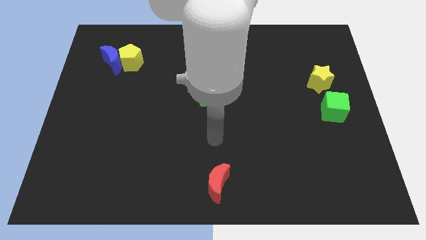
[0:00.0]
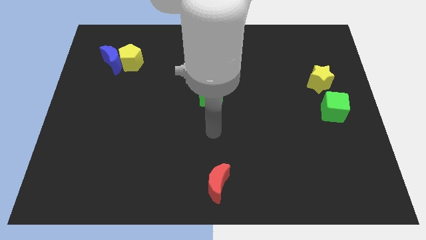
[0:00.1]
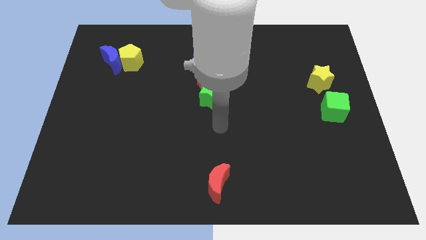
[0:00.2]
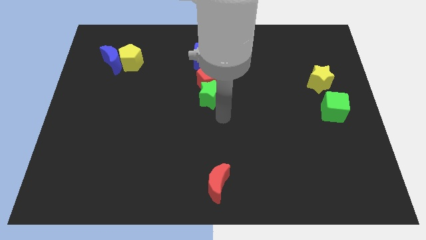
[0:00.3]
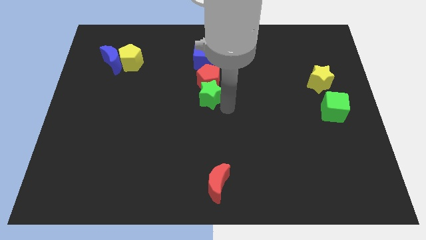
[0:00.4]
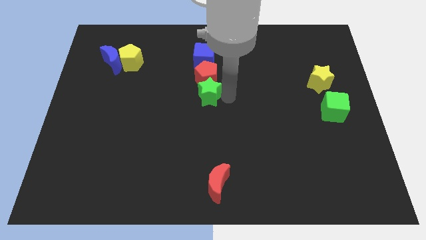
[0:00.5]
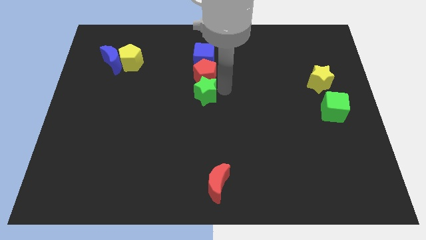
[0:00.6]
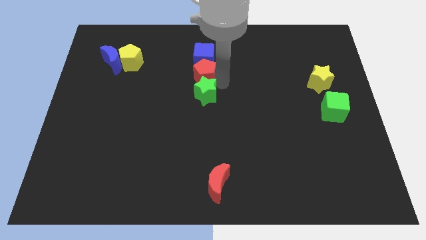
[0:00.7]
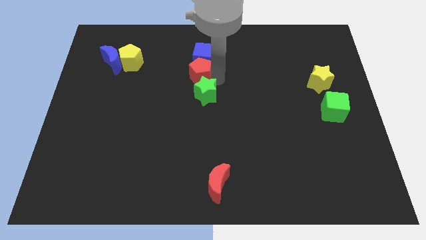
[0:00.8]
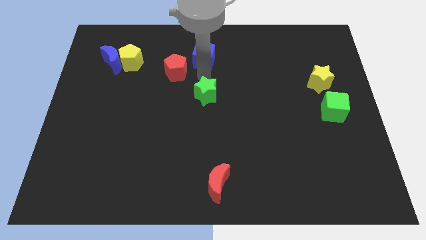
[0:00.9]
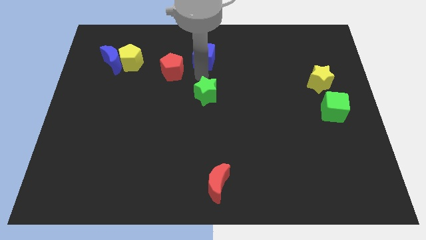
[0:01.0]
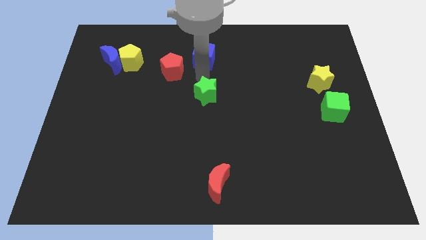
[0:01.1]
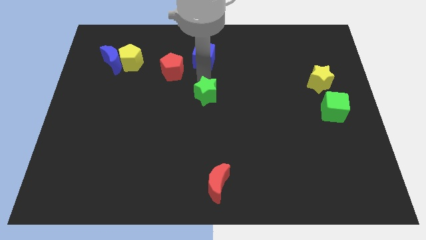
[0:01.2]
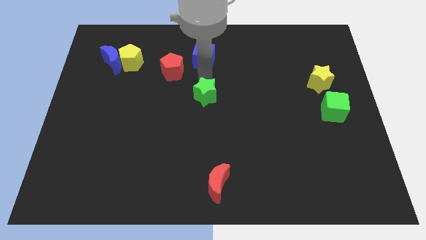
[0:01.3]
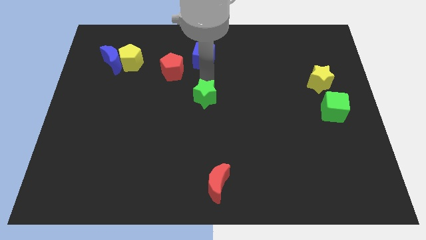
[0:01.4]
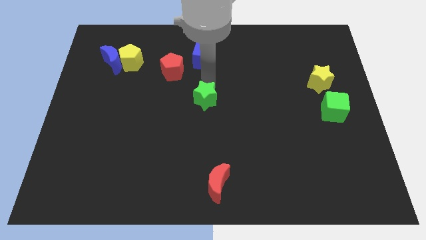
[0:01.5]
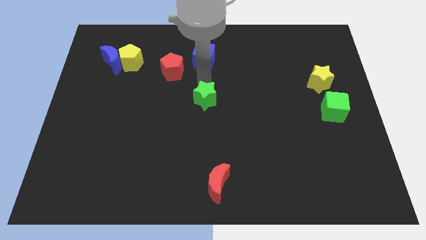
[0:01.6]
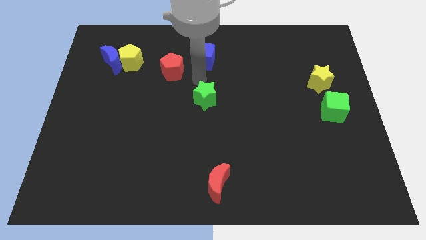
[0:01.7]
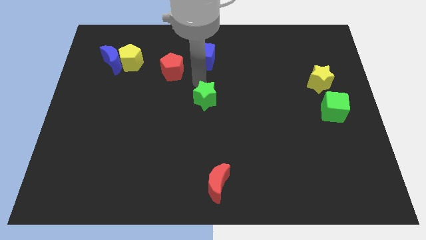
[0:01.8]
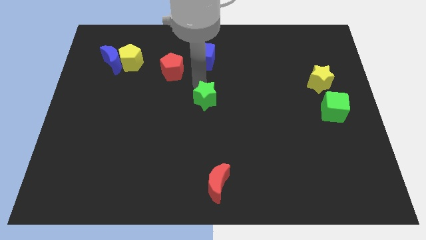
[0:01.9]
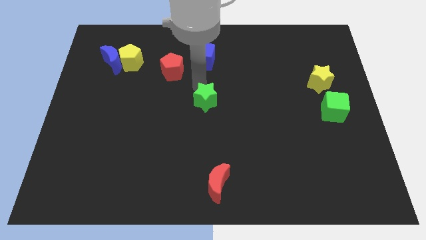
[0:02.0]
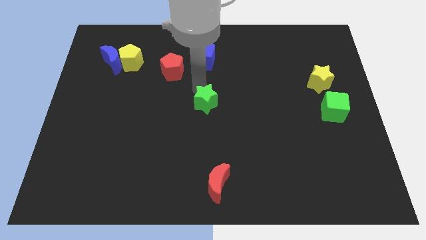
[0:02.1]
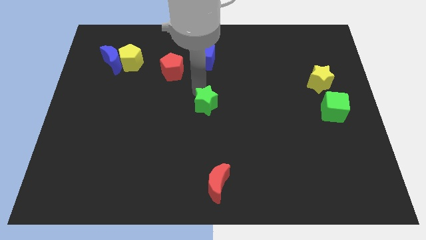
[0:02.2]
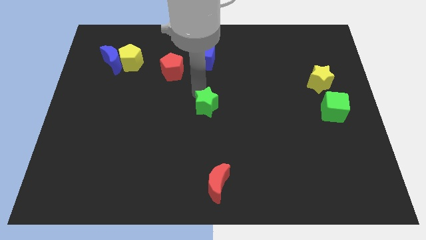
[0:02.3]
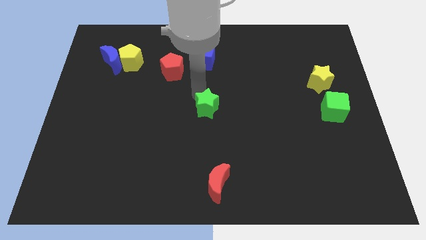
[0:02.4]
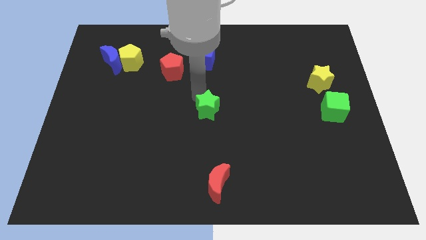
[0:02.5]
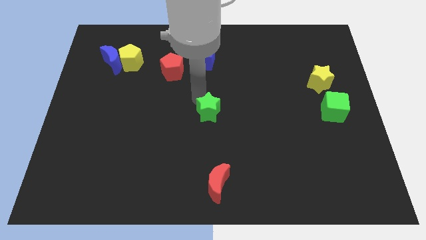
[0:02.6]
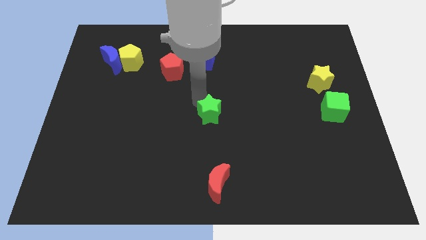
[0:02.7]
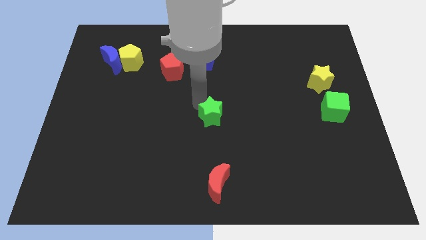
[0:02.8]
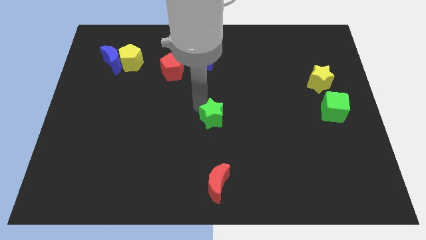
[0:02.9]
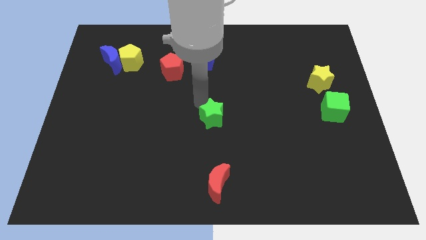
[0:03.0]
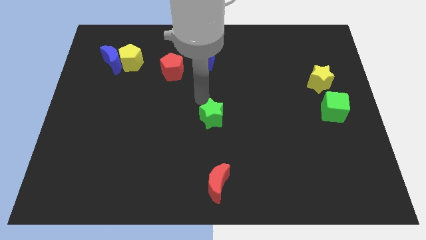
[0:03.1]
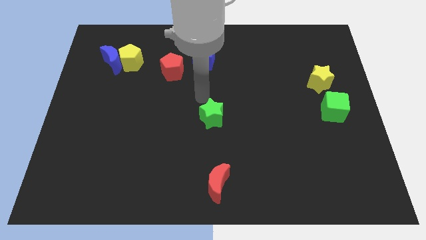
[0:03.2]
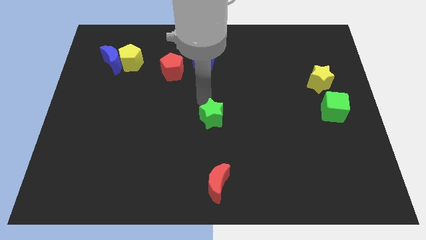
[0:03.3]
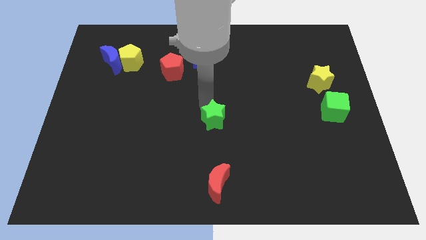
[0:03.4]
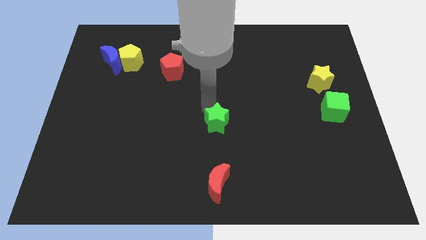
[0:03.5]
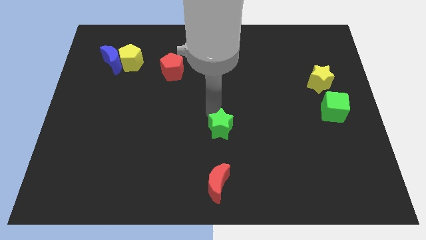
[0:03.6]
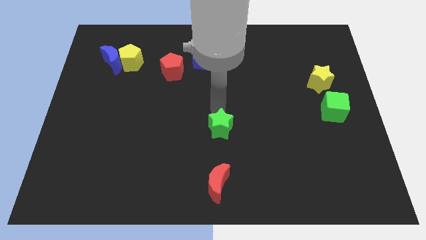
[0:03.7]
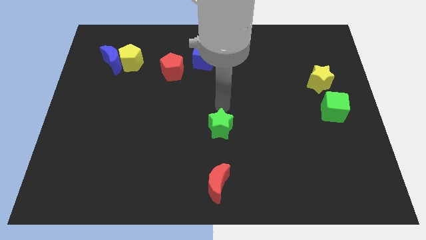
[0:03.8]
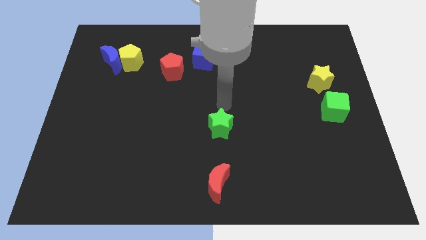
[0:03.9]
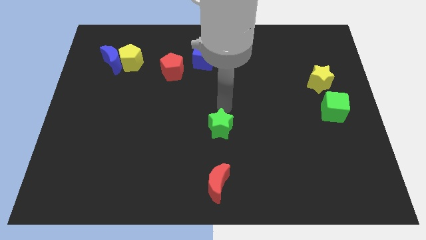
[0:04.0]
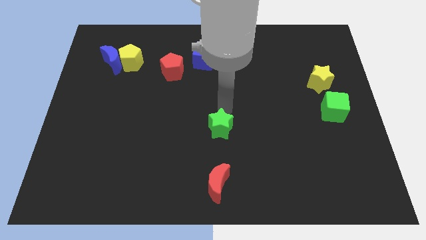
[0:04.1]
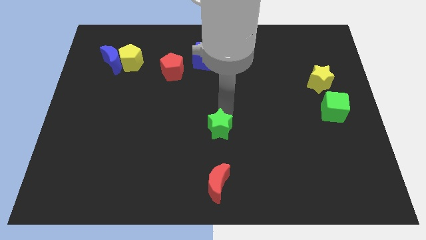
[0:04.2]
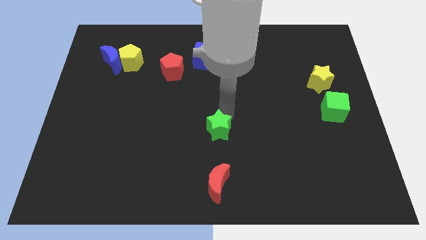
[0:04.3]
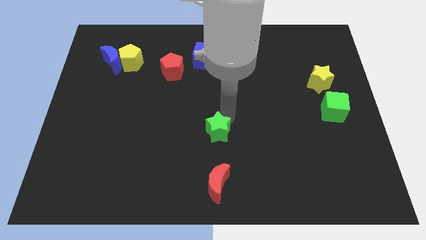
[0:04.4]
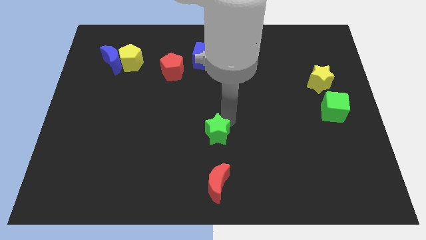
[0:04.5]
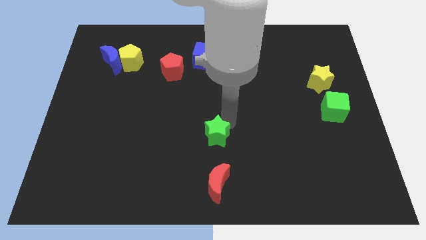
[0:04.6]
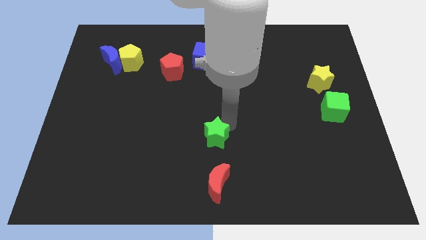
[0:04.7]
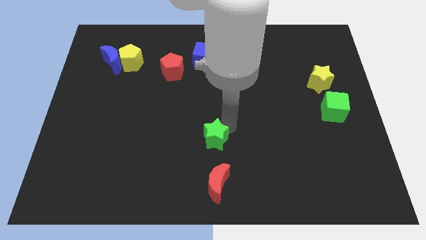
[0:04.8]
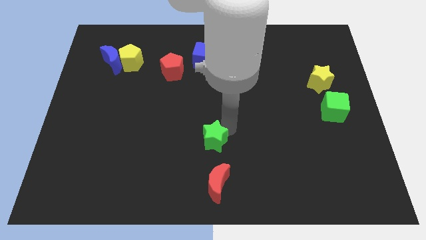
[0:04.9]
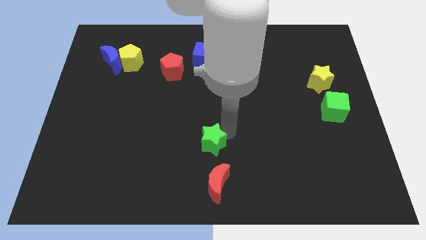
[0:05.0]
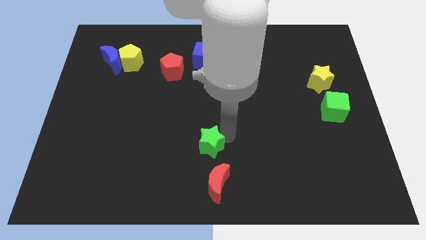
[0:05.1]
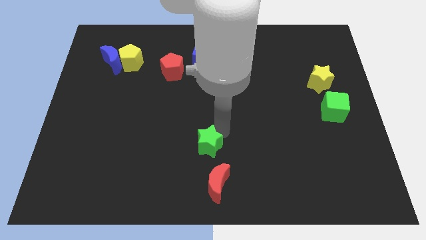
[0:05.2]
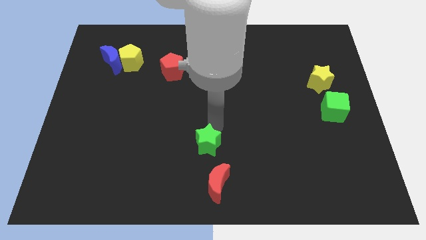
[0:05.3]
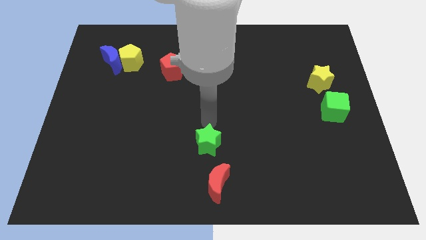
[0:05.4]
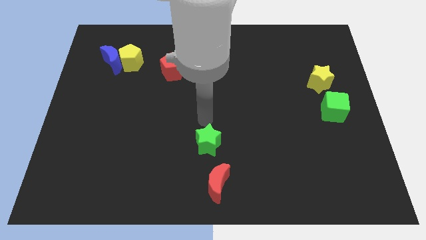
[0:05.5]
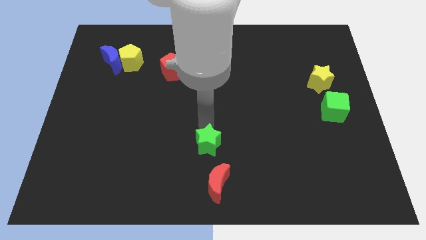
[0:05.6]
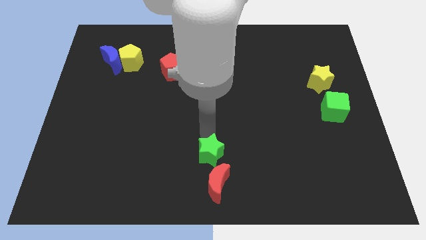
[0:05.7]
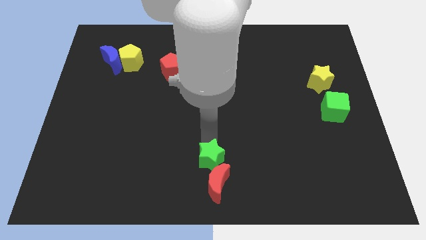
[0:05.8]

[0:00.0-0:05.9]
slide the green star close to the red moon
